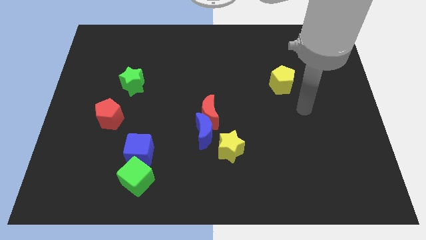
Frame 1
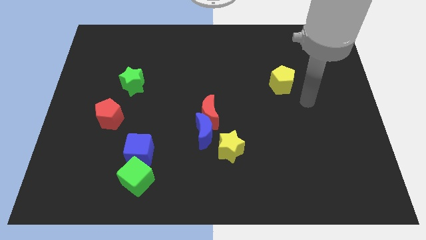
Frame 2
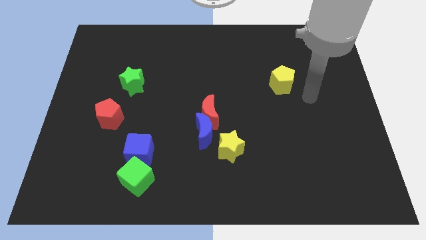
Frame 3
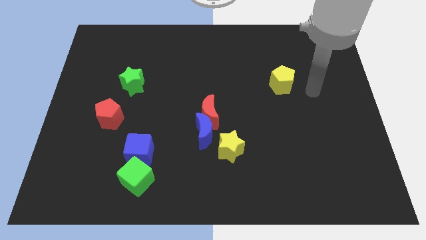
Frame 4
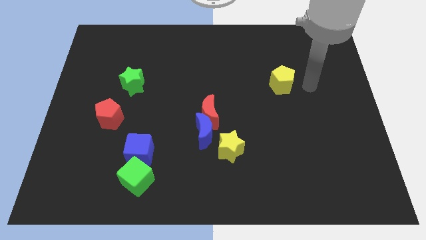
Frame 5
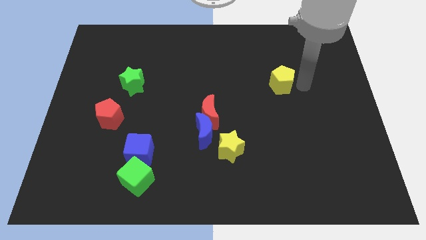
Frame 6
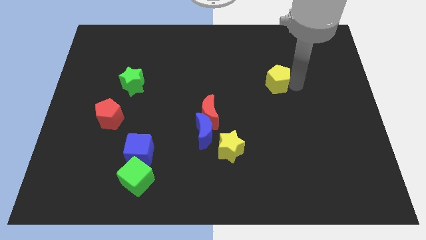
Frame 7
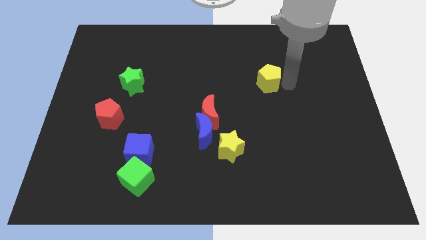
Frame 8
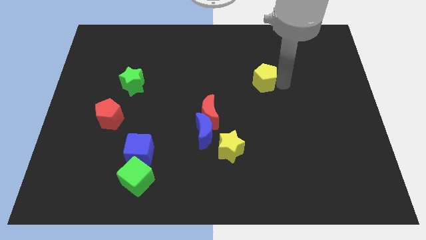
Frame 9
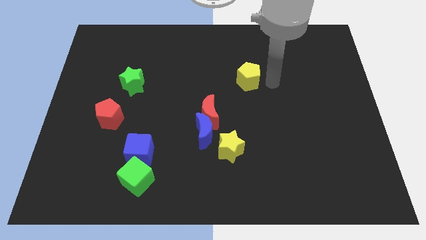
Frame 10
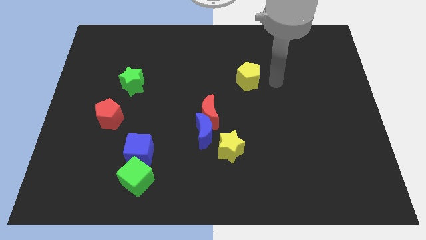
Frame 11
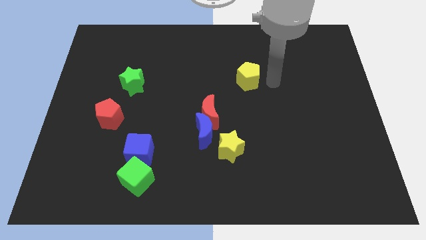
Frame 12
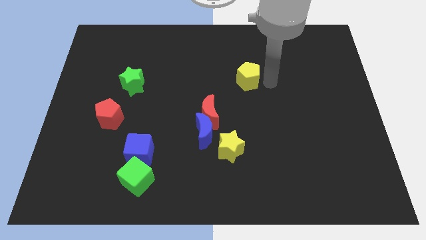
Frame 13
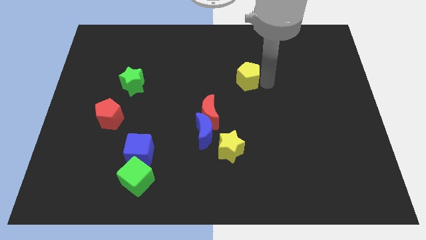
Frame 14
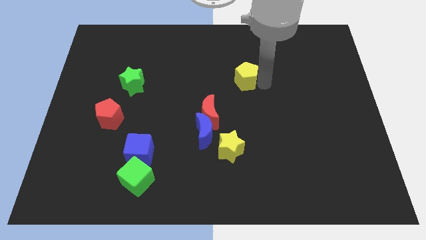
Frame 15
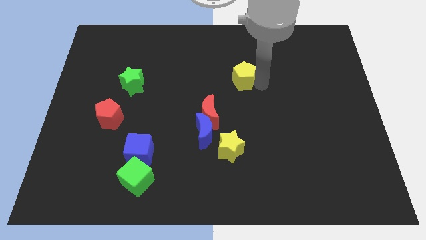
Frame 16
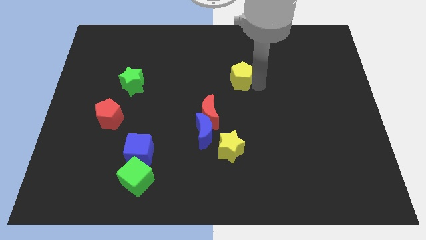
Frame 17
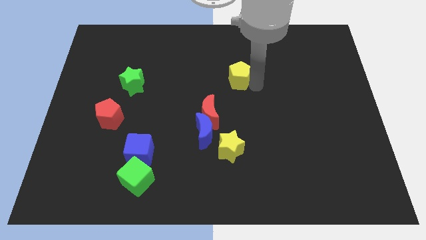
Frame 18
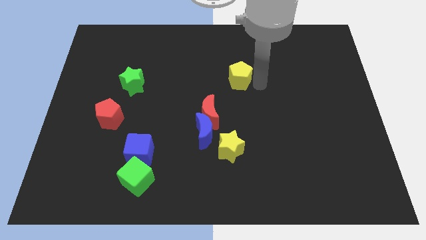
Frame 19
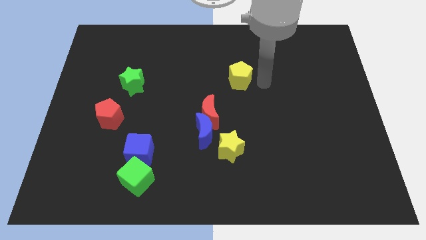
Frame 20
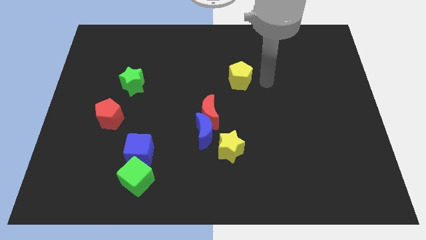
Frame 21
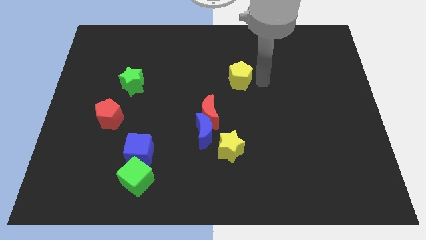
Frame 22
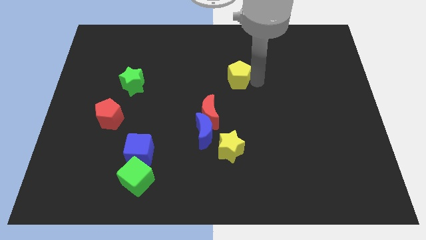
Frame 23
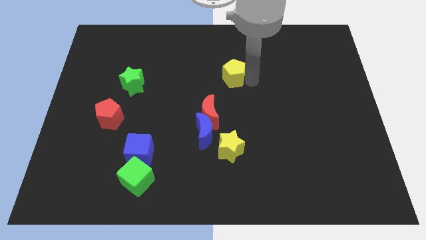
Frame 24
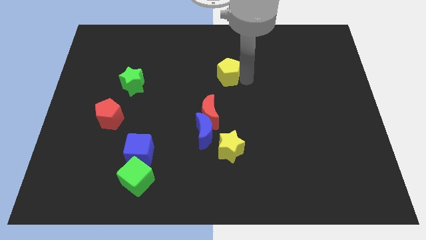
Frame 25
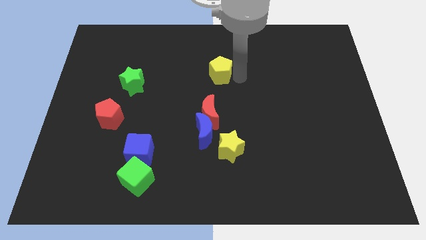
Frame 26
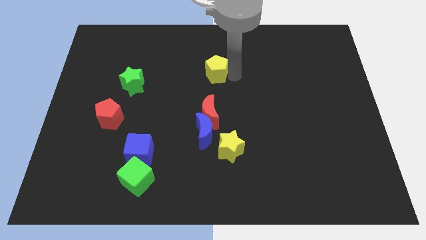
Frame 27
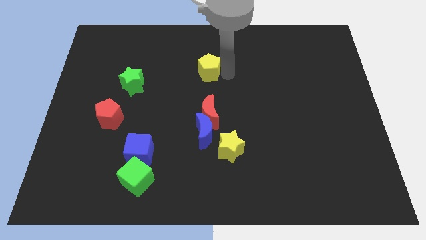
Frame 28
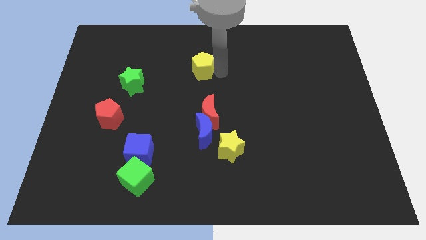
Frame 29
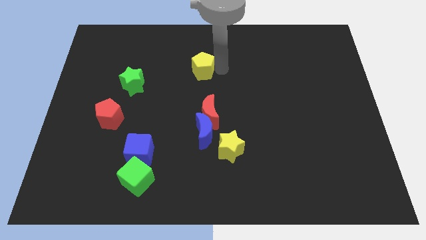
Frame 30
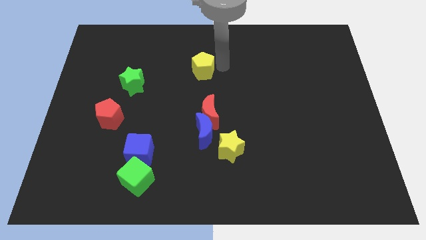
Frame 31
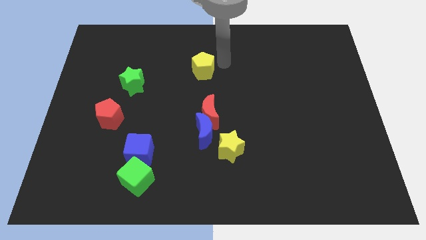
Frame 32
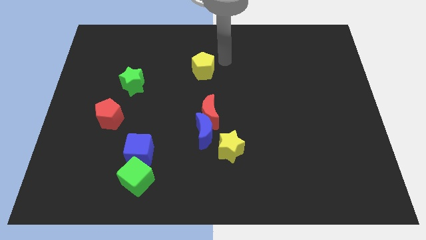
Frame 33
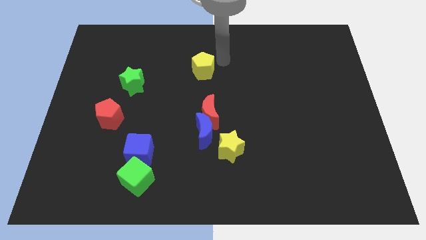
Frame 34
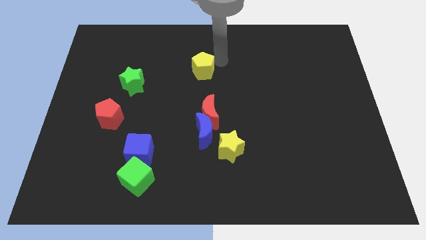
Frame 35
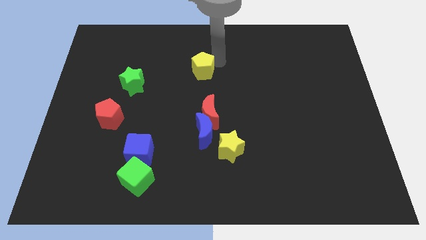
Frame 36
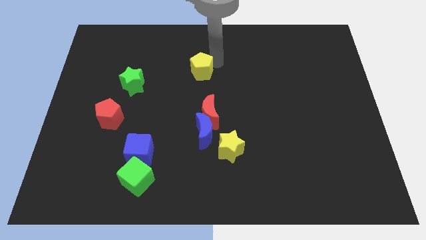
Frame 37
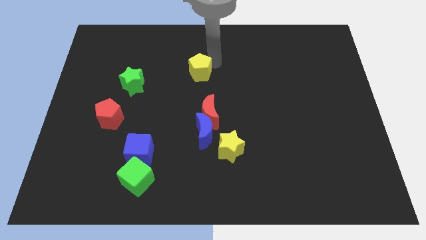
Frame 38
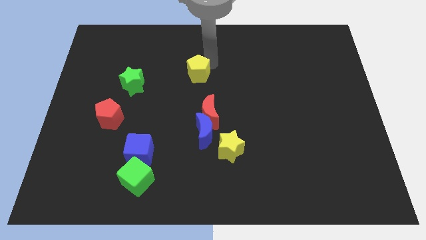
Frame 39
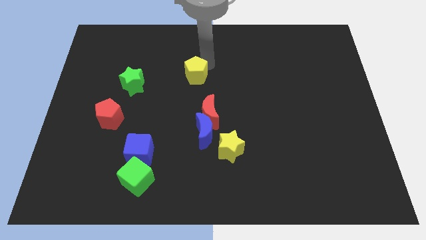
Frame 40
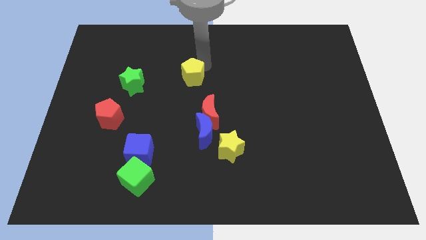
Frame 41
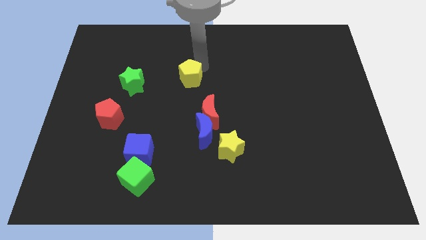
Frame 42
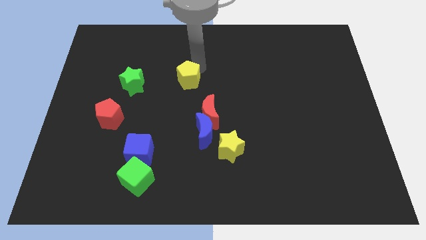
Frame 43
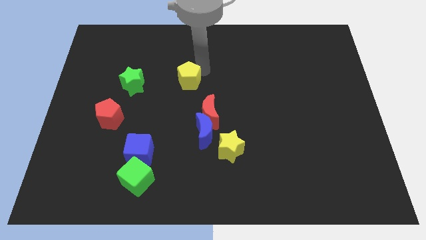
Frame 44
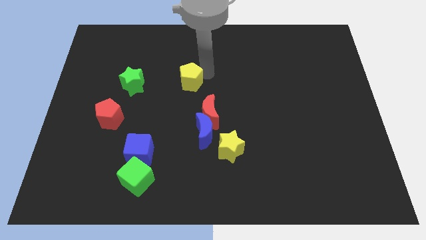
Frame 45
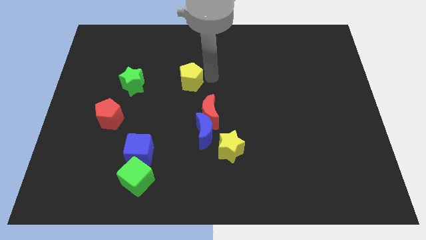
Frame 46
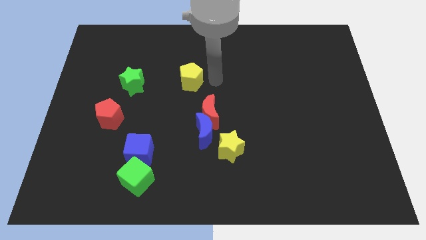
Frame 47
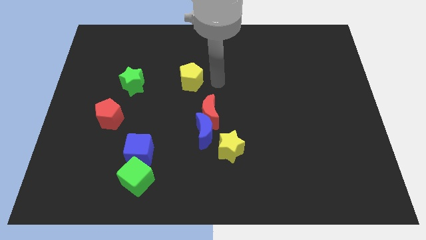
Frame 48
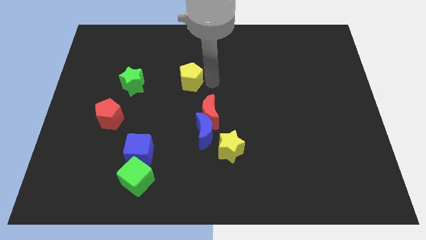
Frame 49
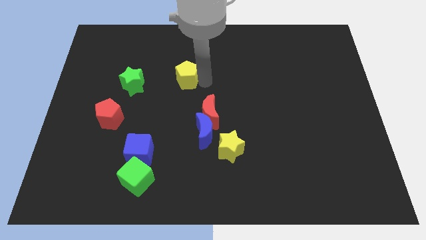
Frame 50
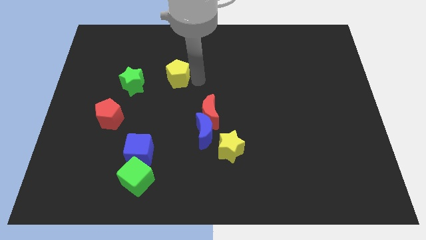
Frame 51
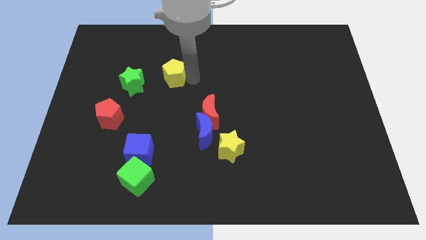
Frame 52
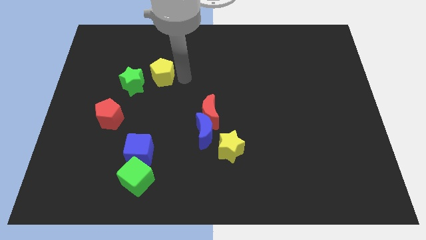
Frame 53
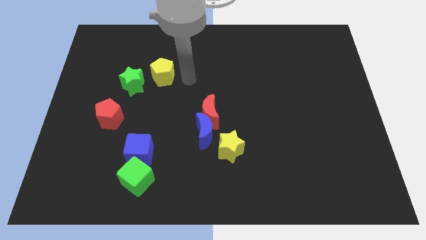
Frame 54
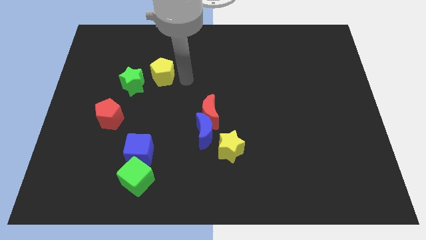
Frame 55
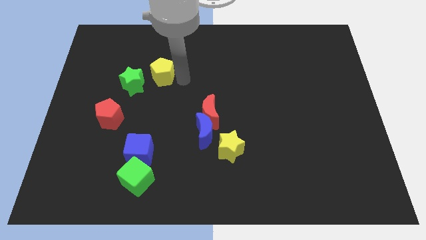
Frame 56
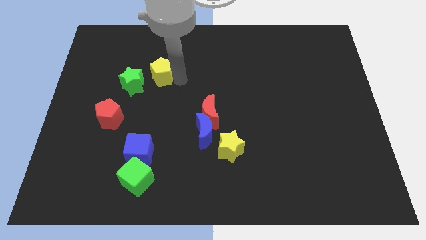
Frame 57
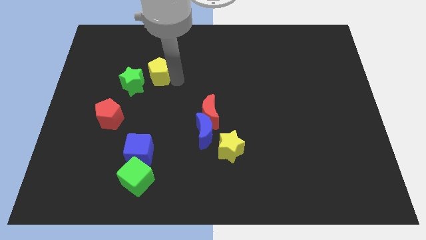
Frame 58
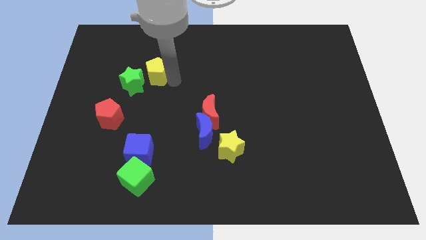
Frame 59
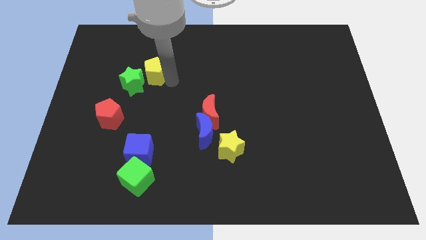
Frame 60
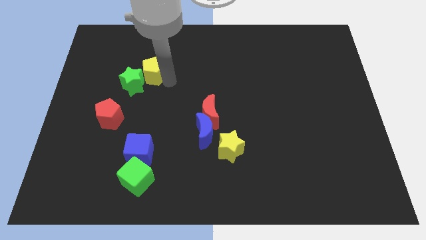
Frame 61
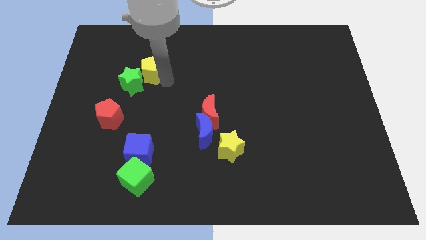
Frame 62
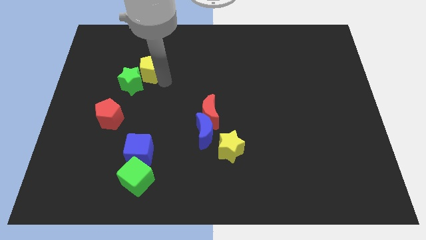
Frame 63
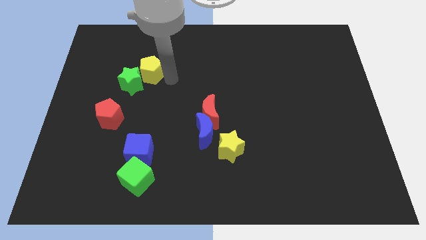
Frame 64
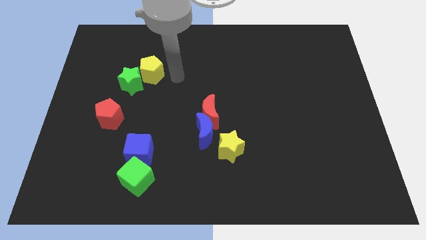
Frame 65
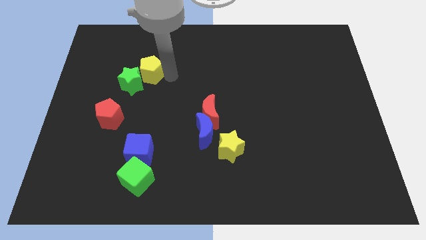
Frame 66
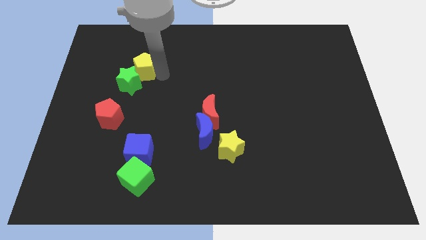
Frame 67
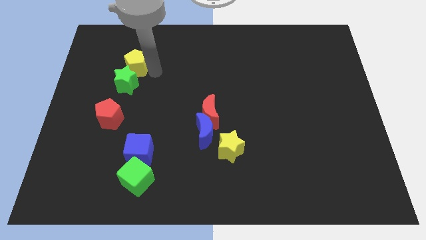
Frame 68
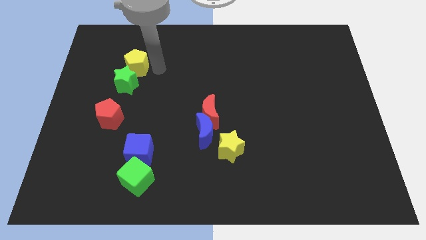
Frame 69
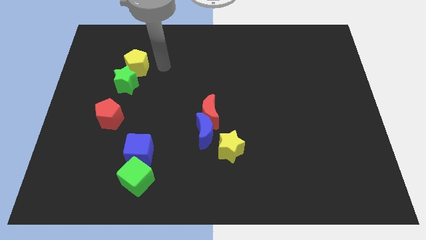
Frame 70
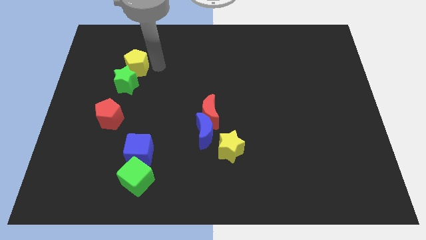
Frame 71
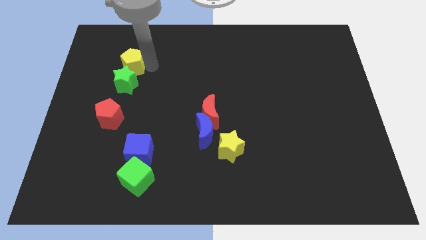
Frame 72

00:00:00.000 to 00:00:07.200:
move the yellow pentagon to the top left side of the green star
